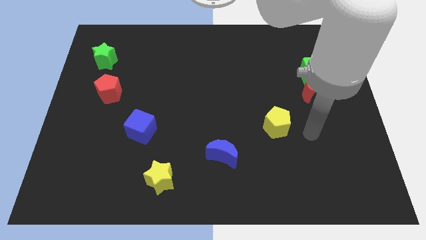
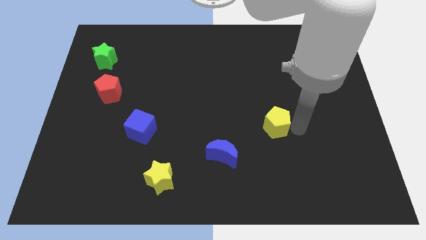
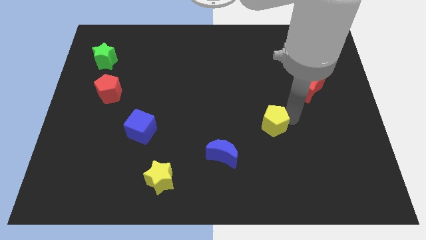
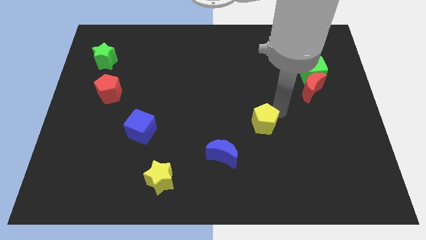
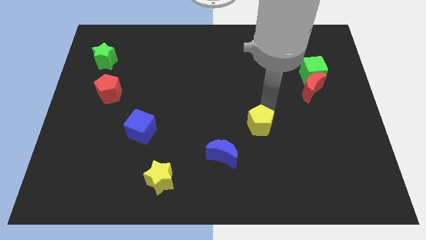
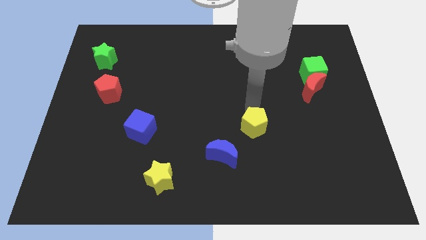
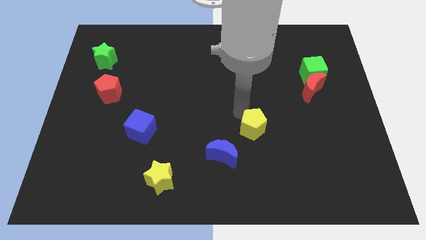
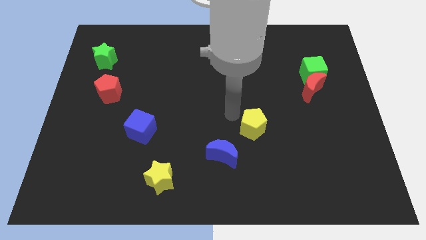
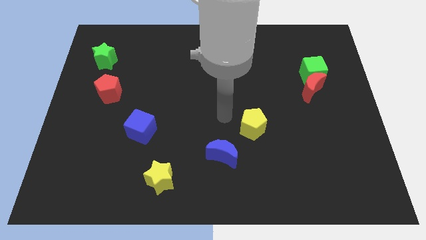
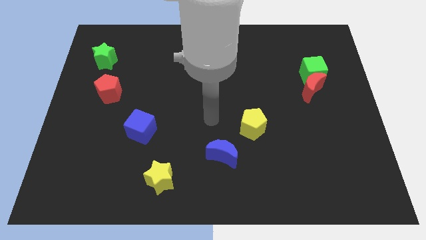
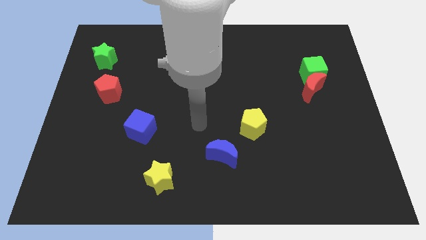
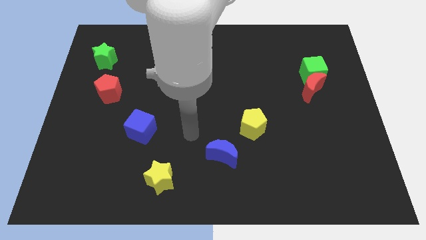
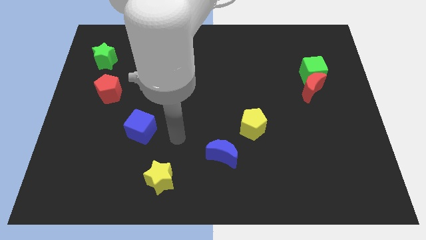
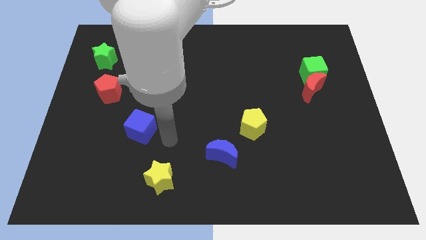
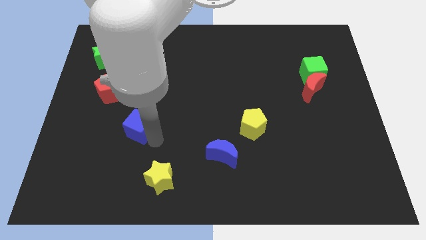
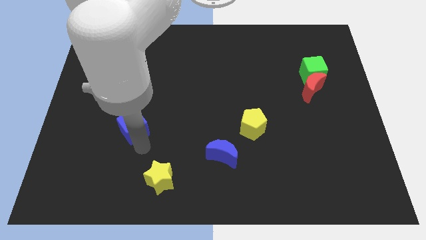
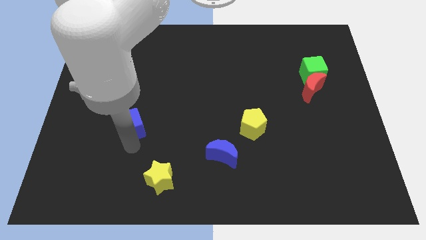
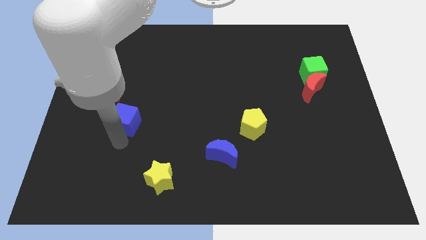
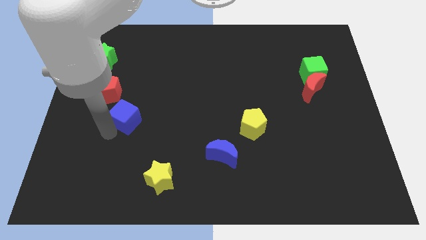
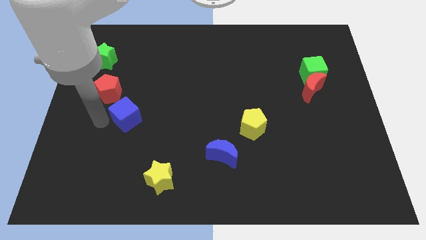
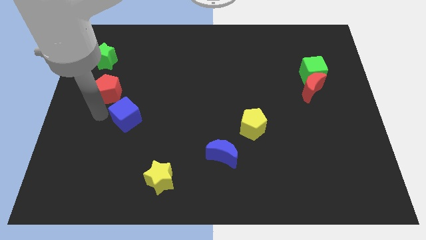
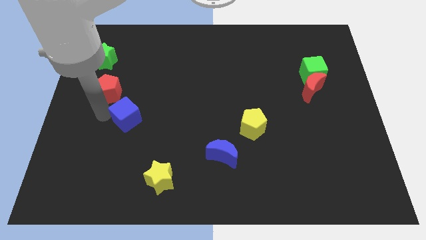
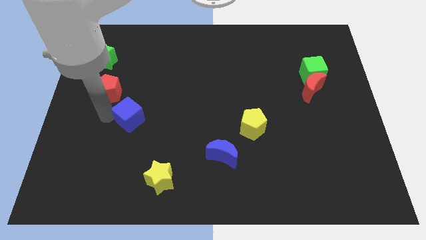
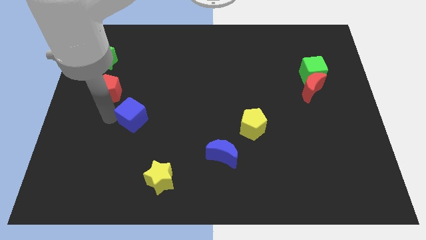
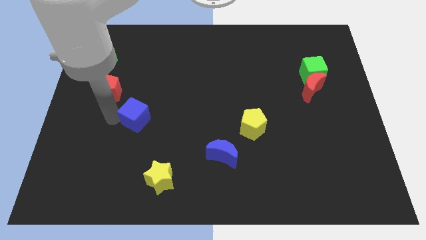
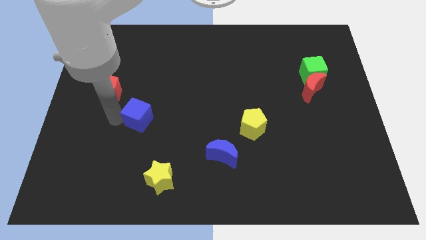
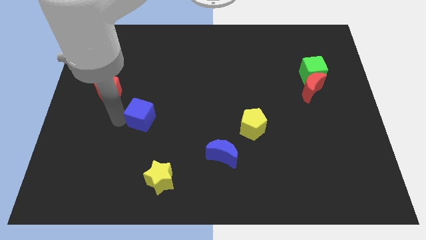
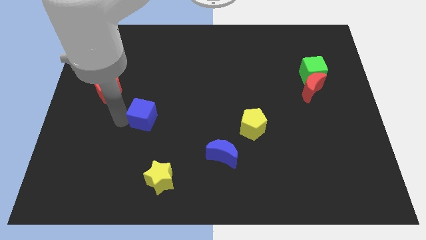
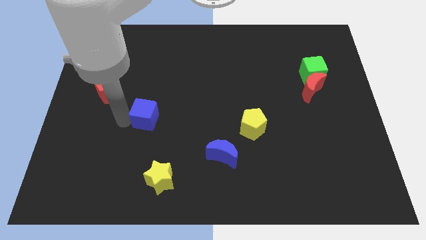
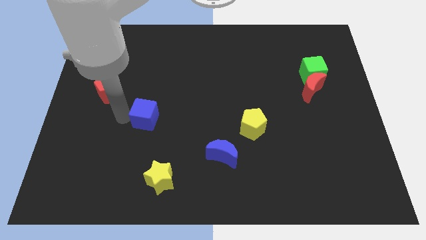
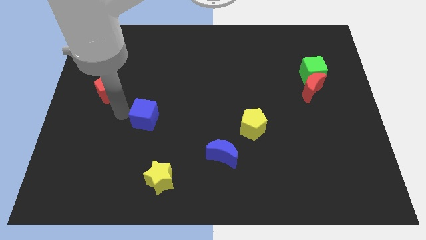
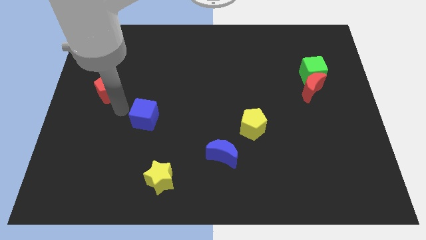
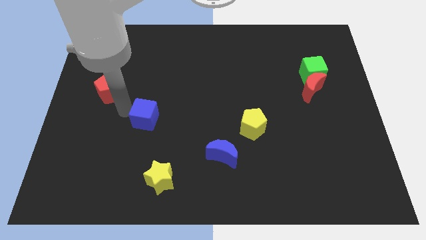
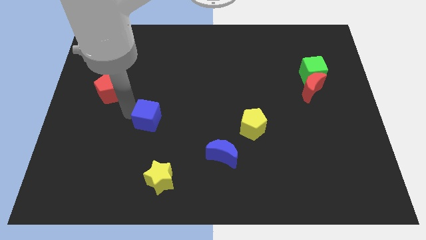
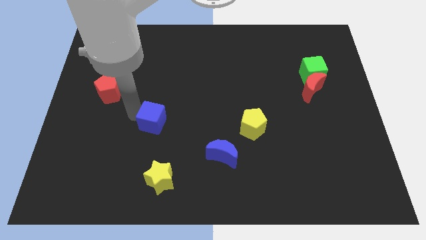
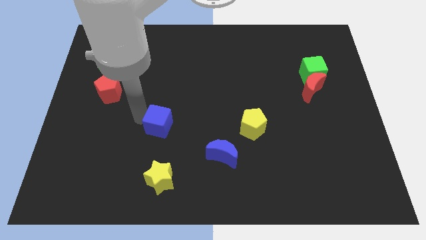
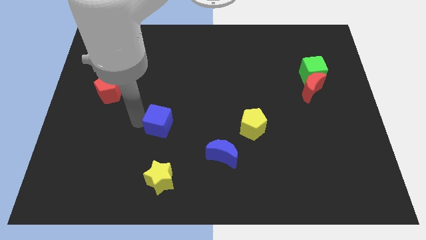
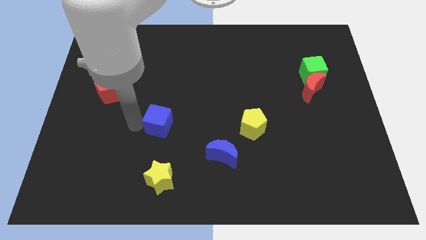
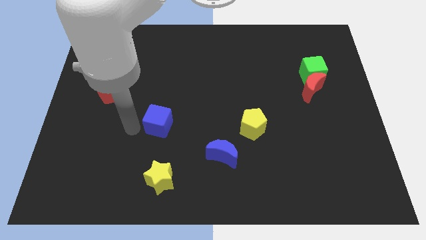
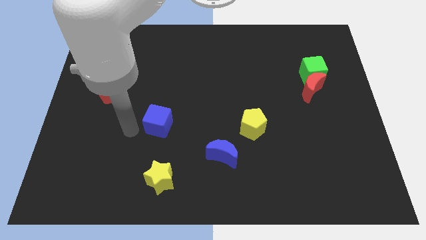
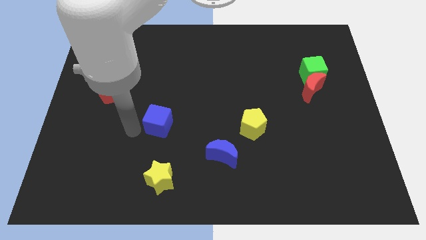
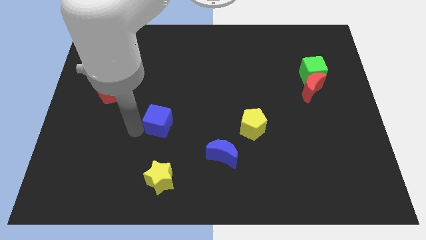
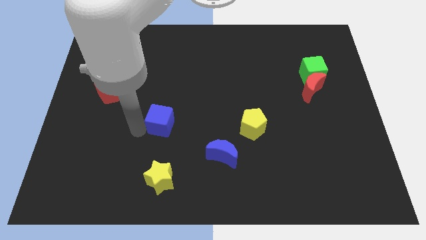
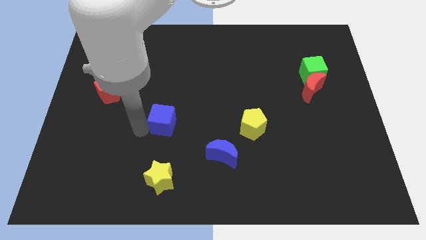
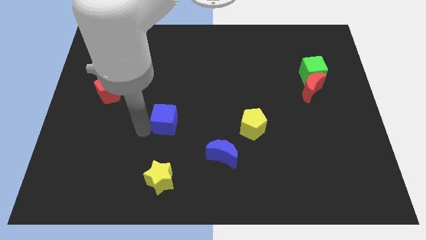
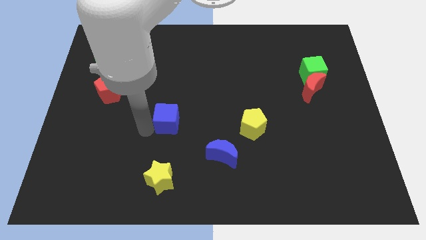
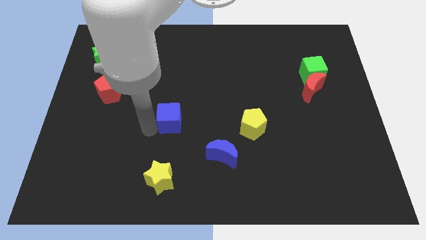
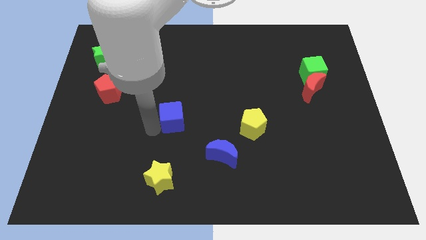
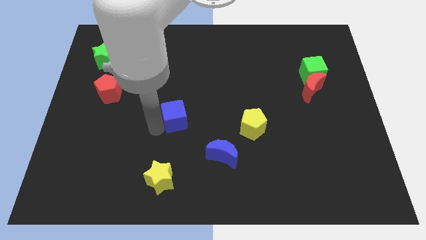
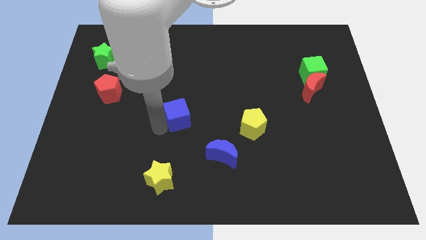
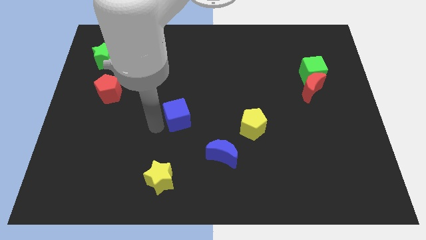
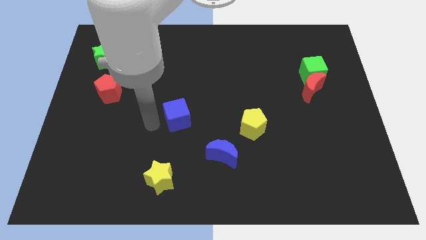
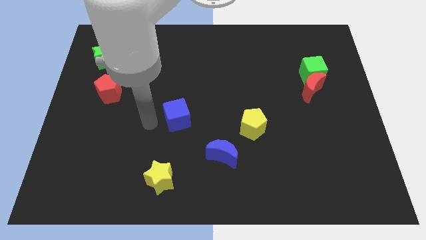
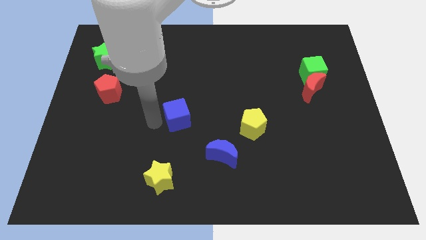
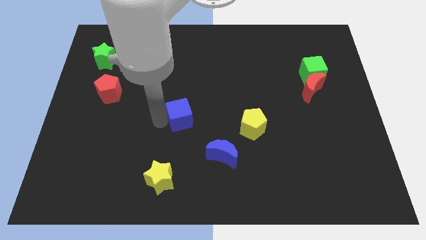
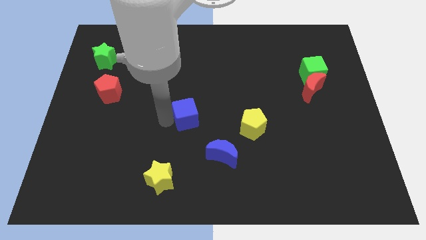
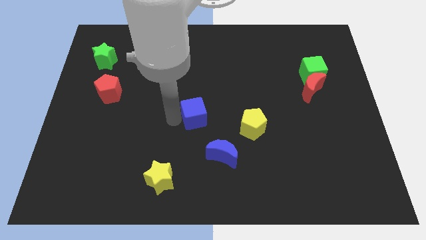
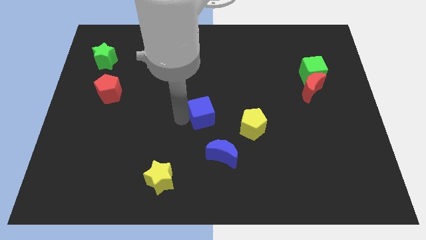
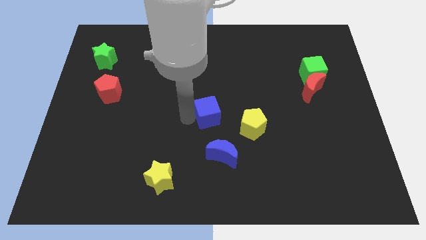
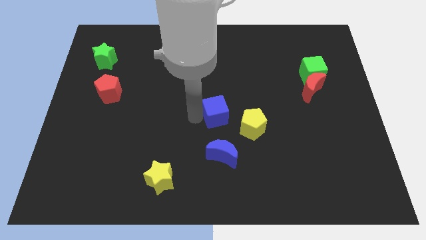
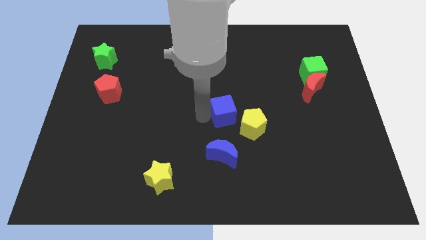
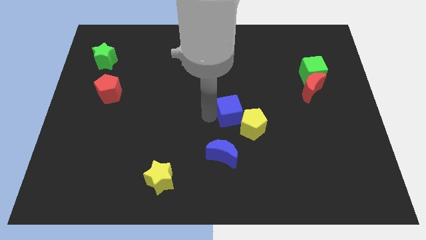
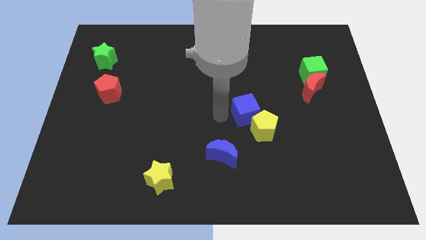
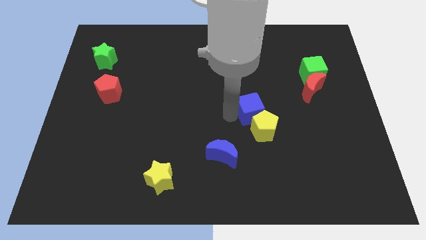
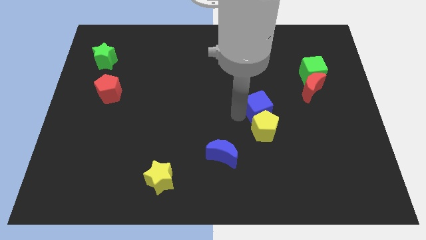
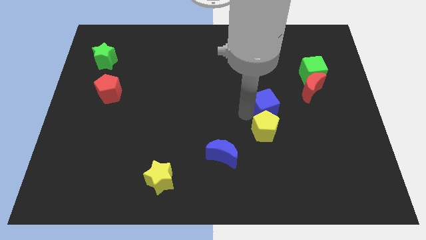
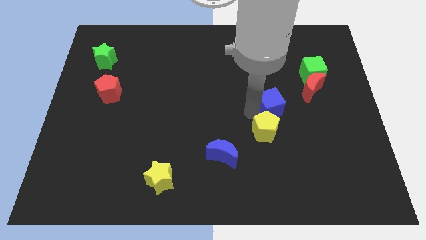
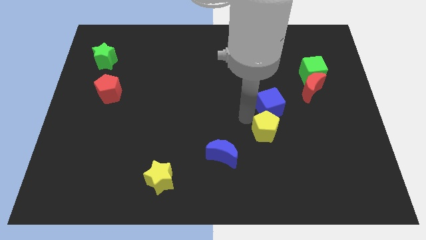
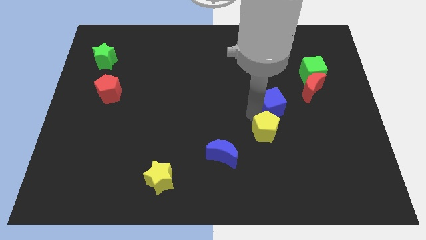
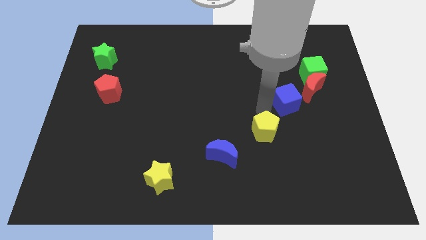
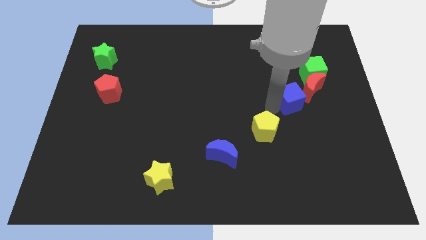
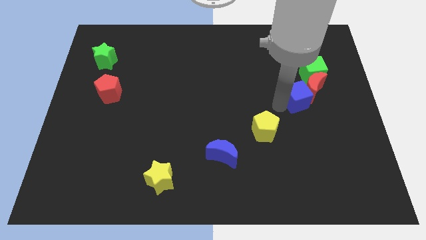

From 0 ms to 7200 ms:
move the blue cube close to the red moon
